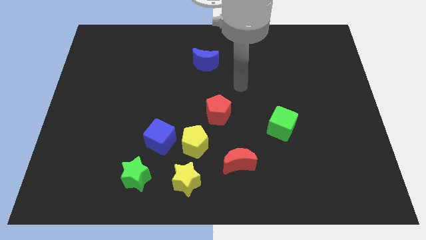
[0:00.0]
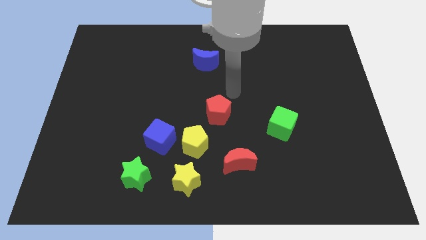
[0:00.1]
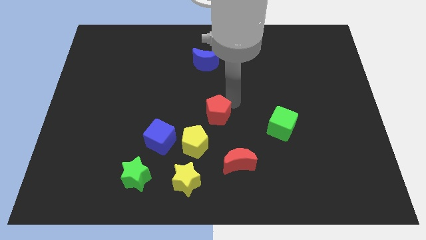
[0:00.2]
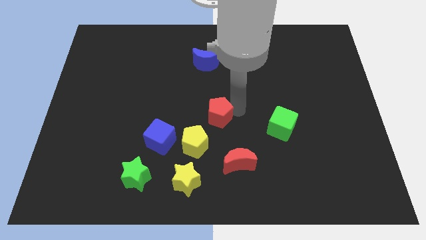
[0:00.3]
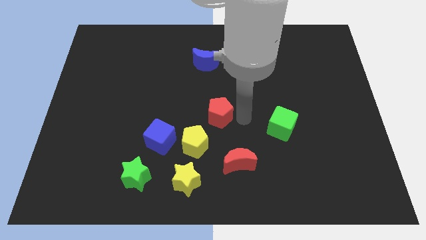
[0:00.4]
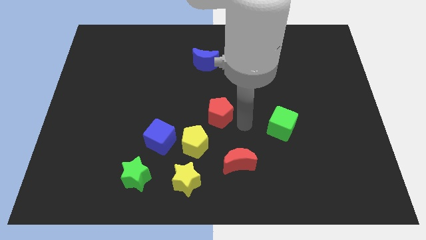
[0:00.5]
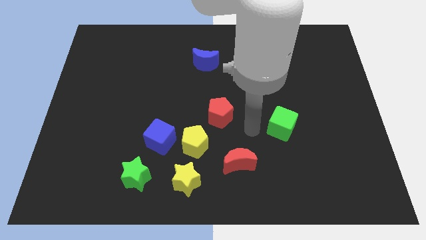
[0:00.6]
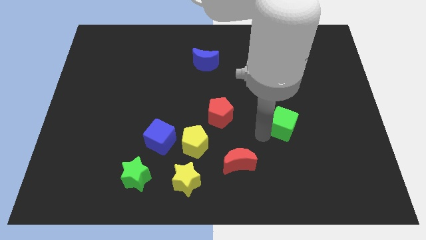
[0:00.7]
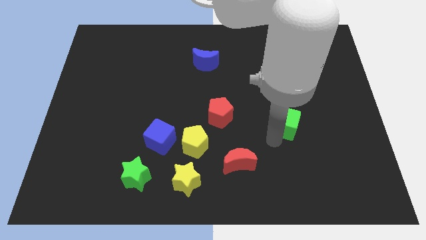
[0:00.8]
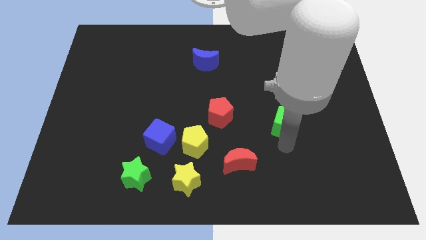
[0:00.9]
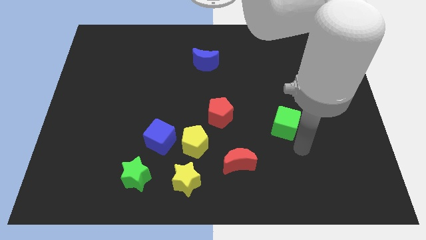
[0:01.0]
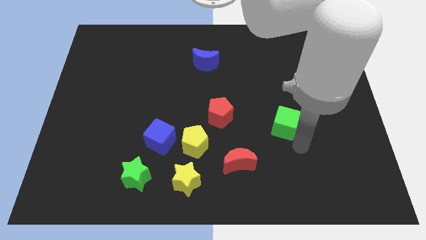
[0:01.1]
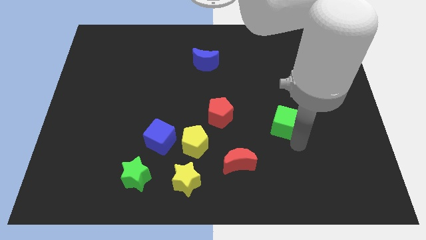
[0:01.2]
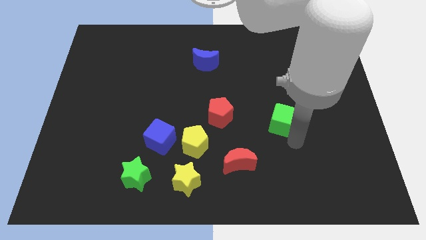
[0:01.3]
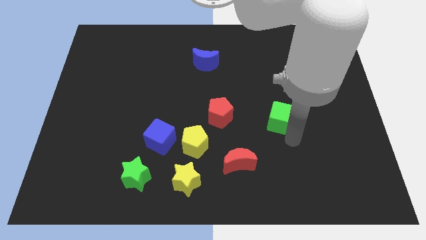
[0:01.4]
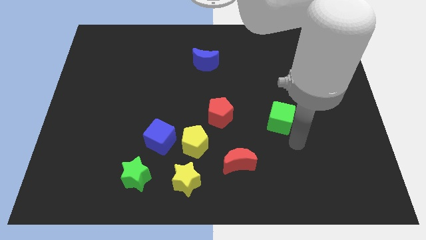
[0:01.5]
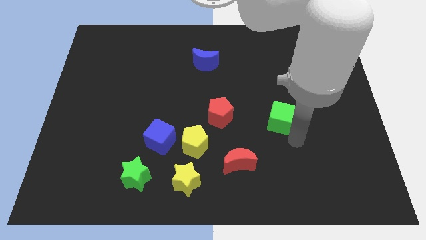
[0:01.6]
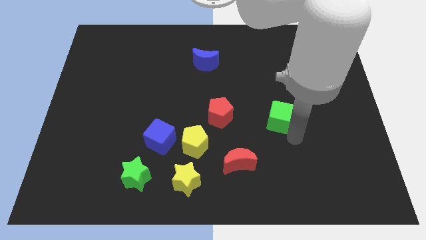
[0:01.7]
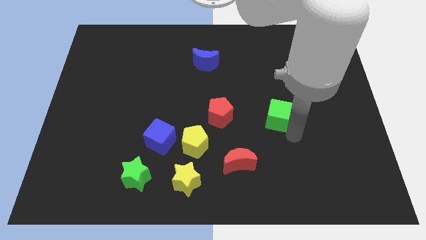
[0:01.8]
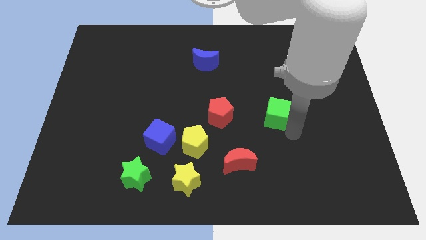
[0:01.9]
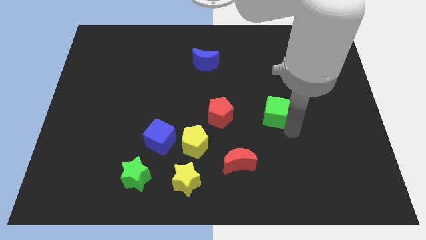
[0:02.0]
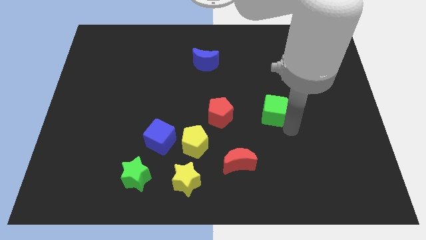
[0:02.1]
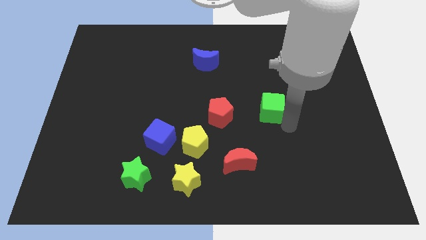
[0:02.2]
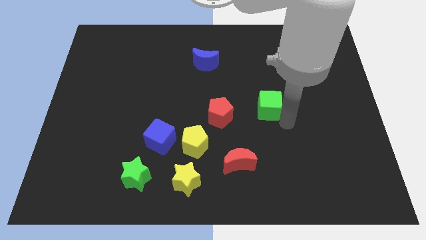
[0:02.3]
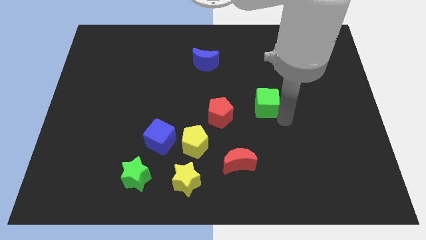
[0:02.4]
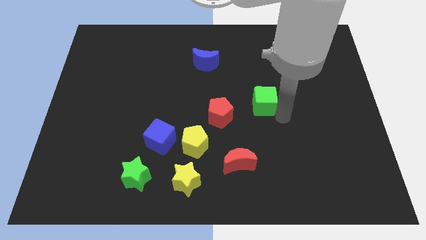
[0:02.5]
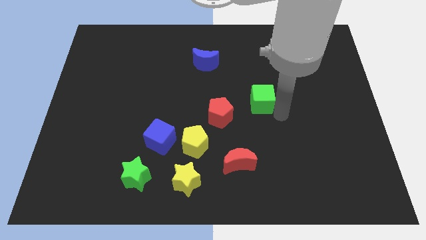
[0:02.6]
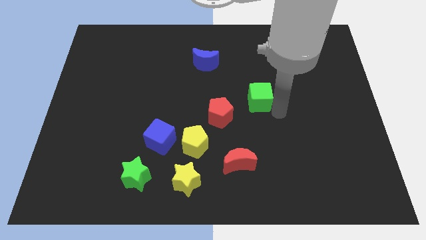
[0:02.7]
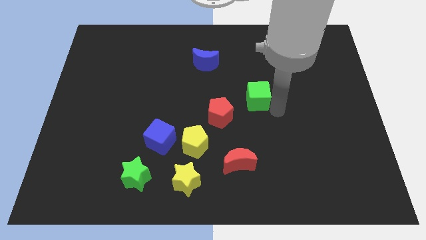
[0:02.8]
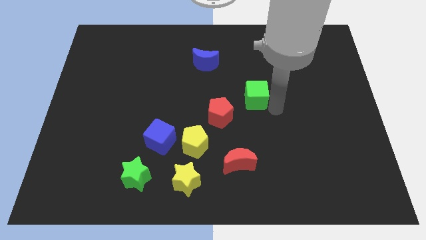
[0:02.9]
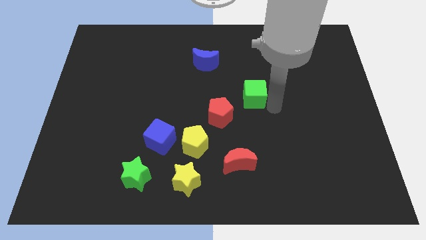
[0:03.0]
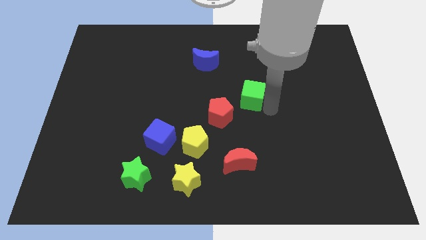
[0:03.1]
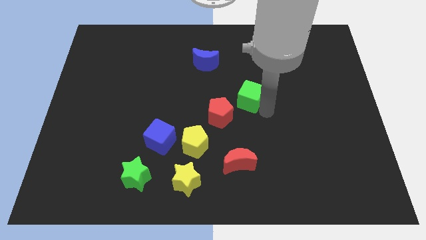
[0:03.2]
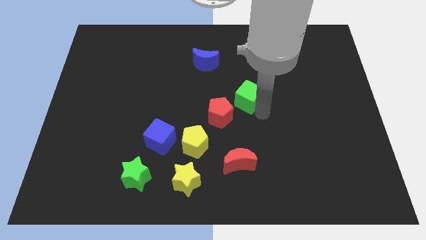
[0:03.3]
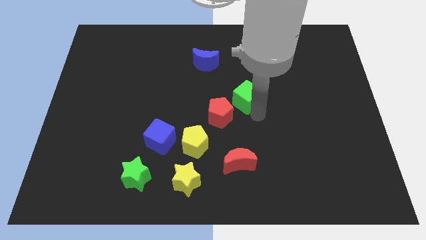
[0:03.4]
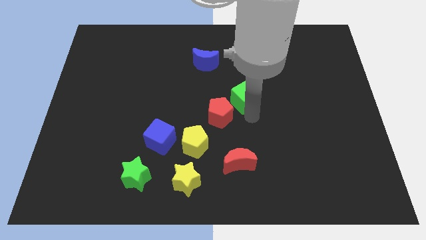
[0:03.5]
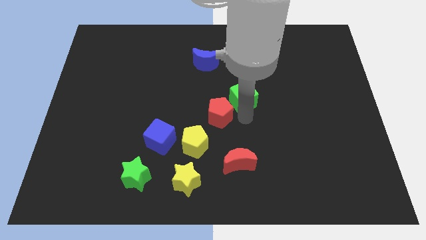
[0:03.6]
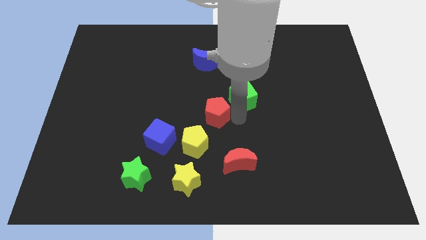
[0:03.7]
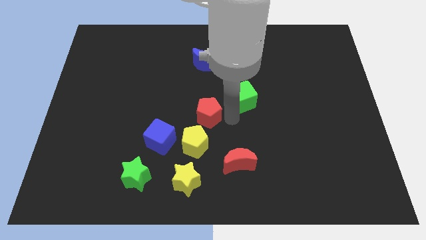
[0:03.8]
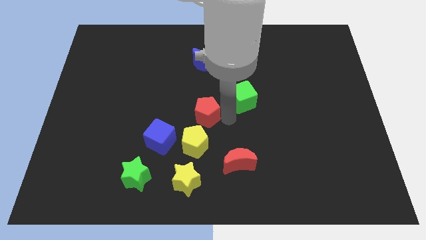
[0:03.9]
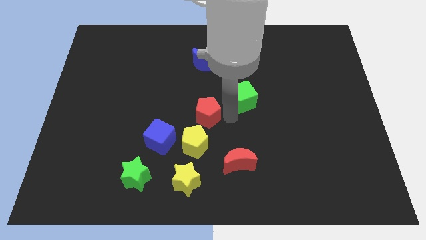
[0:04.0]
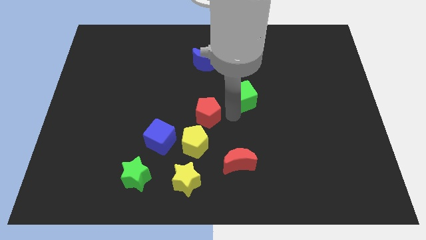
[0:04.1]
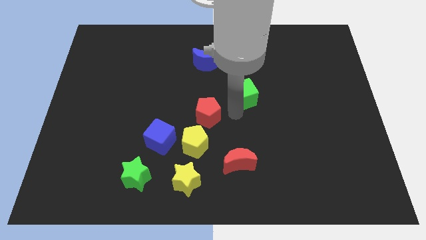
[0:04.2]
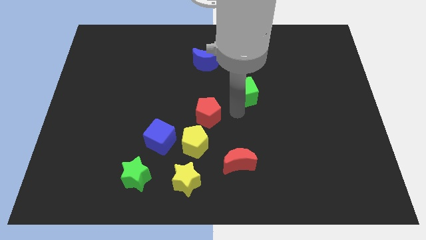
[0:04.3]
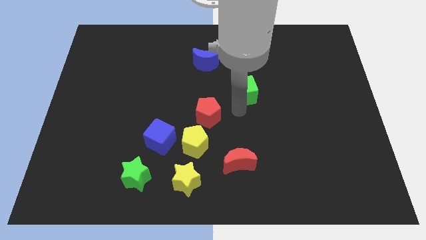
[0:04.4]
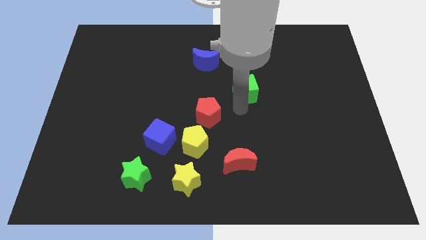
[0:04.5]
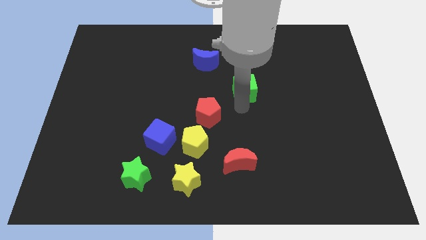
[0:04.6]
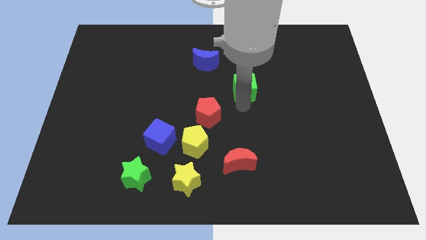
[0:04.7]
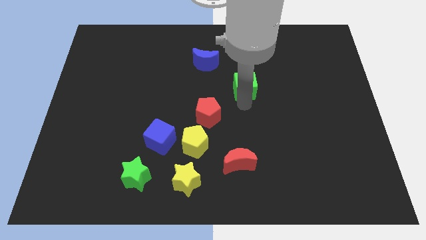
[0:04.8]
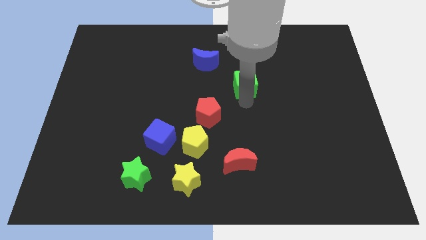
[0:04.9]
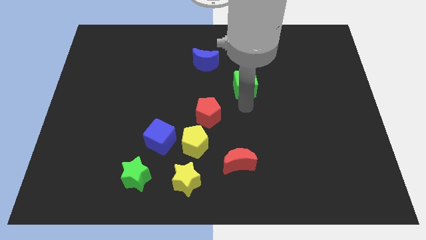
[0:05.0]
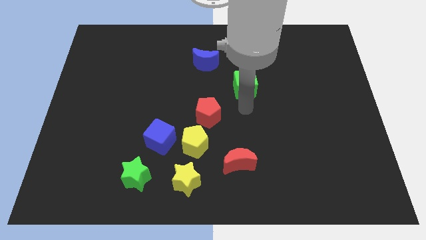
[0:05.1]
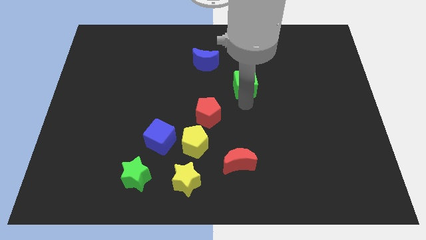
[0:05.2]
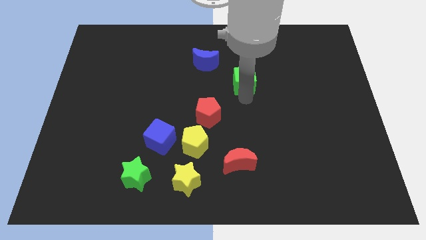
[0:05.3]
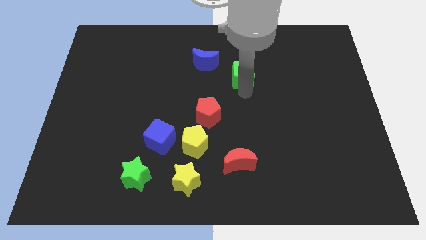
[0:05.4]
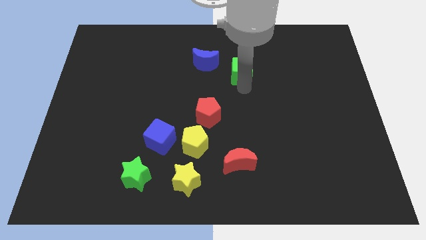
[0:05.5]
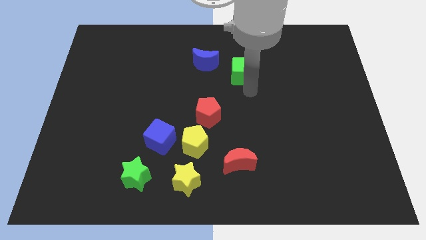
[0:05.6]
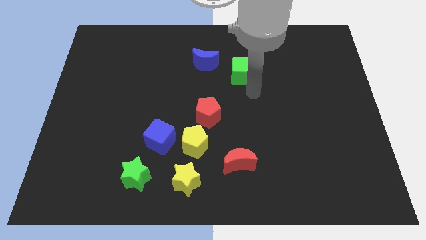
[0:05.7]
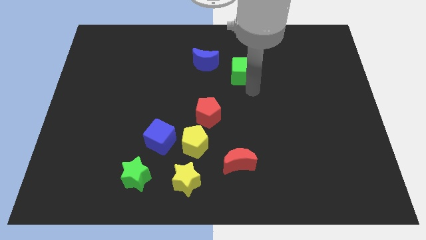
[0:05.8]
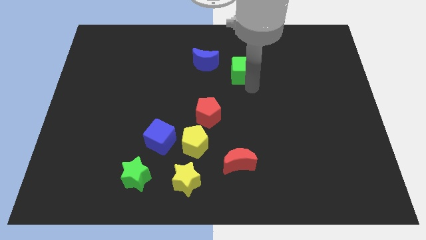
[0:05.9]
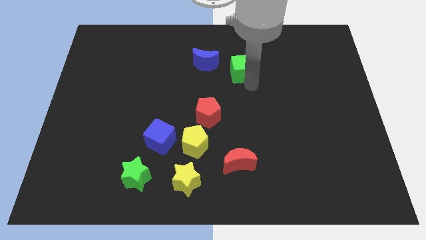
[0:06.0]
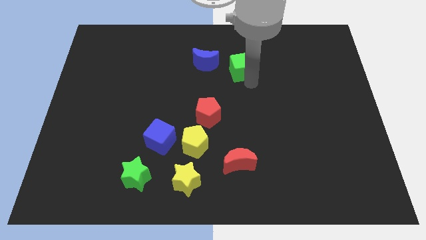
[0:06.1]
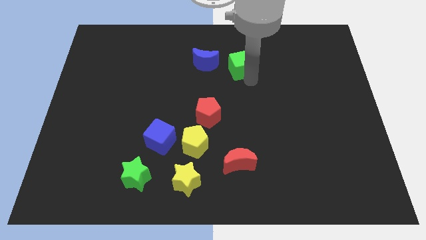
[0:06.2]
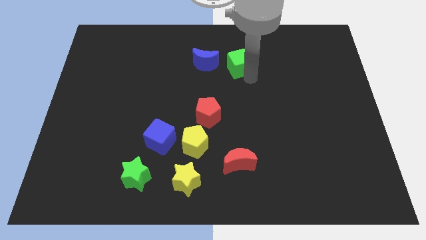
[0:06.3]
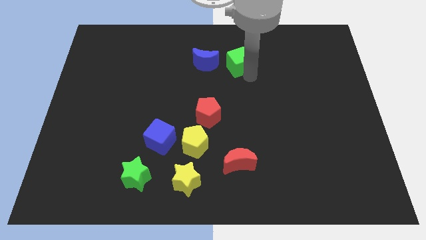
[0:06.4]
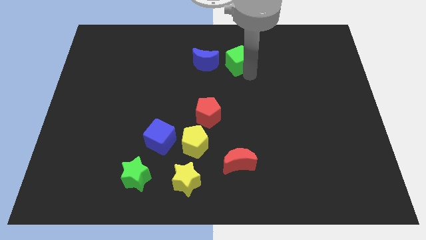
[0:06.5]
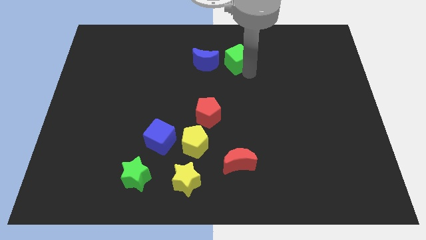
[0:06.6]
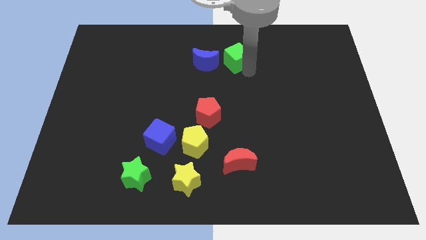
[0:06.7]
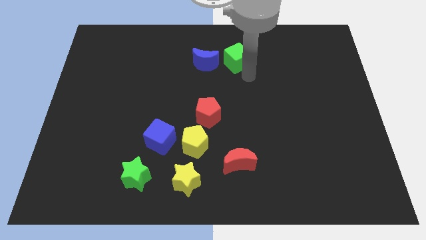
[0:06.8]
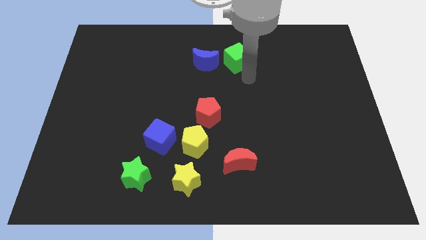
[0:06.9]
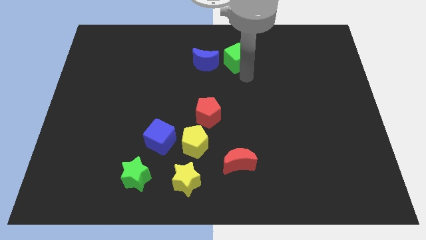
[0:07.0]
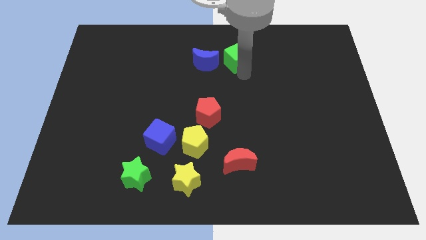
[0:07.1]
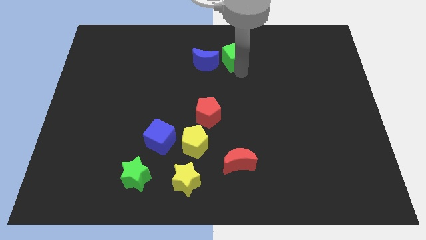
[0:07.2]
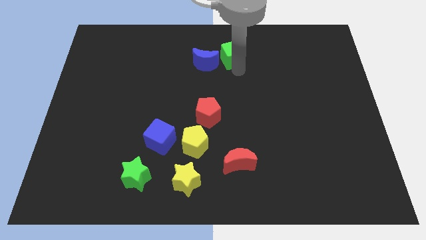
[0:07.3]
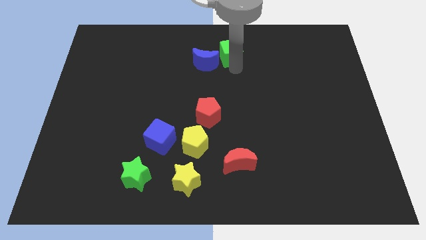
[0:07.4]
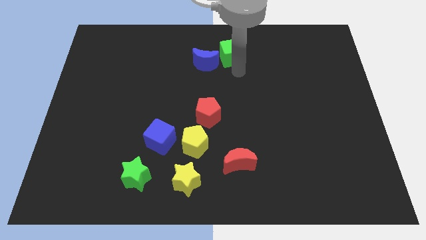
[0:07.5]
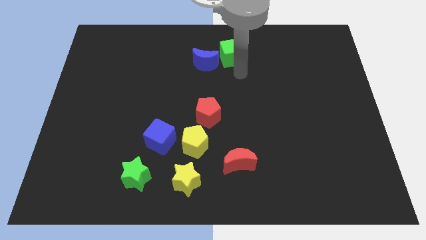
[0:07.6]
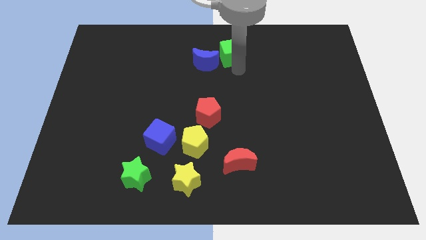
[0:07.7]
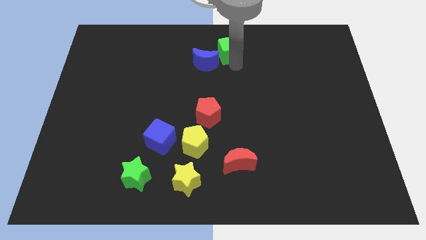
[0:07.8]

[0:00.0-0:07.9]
put the green cube to the top side
